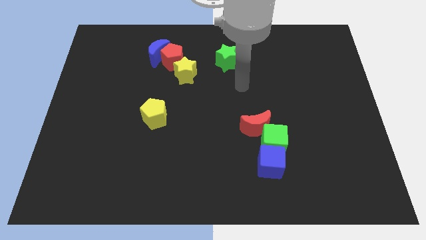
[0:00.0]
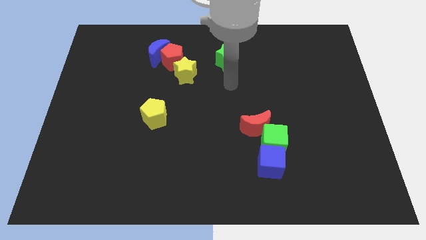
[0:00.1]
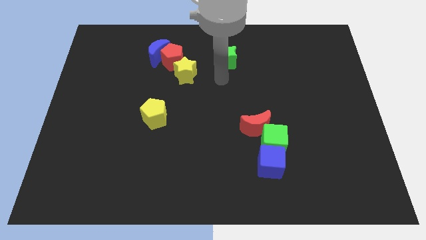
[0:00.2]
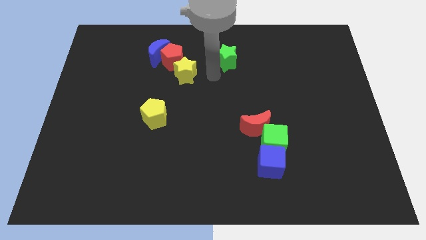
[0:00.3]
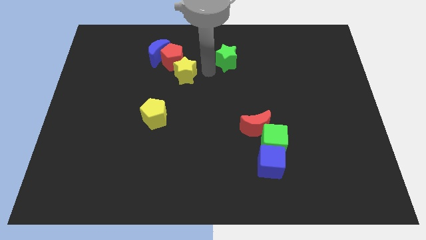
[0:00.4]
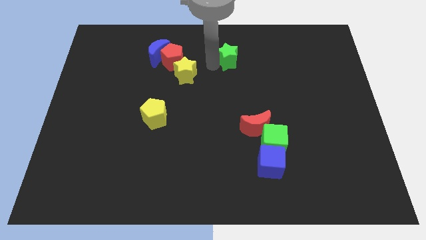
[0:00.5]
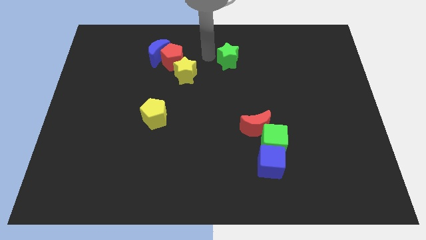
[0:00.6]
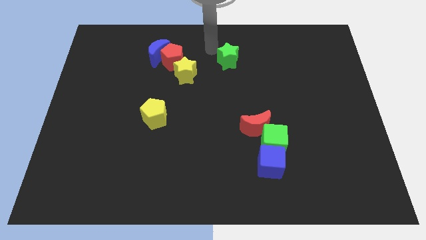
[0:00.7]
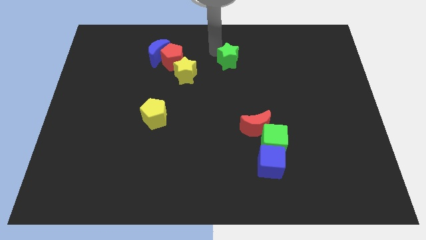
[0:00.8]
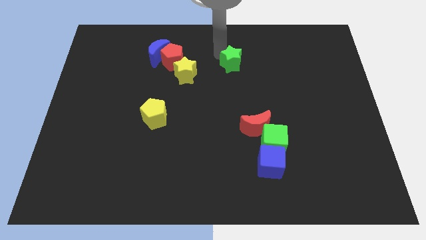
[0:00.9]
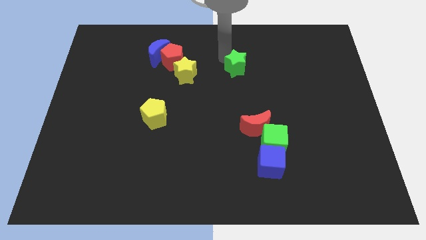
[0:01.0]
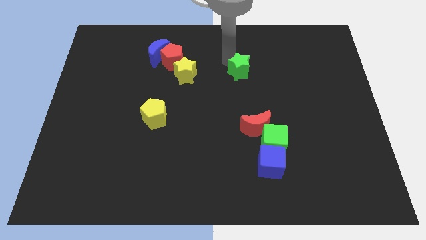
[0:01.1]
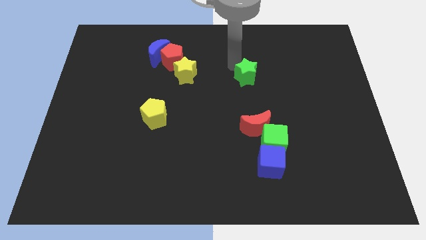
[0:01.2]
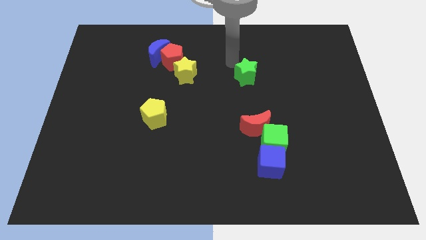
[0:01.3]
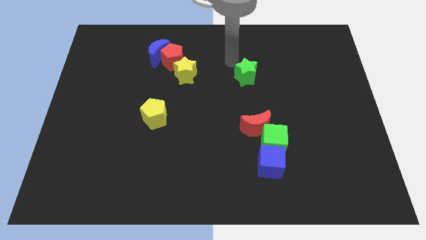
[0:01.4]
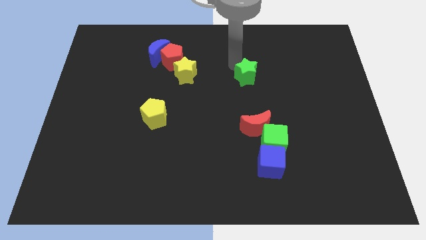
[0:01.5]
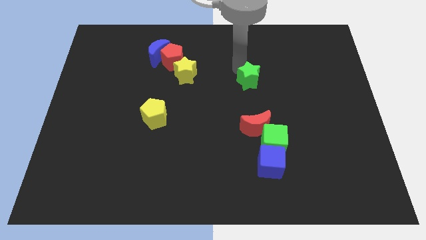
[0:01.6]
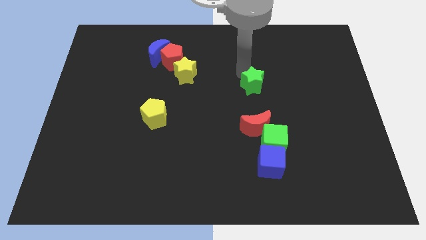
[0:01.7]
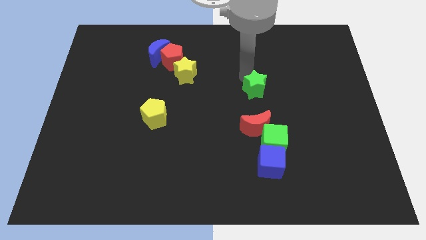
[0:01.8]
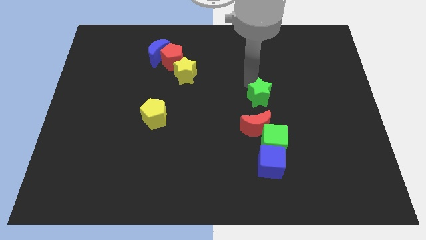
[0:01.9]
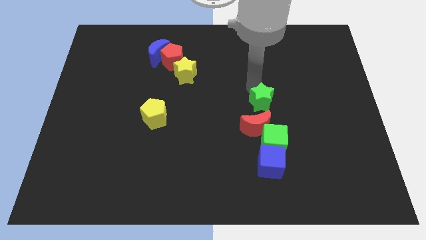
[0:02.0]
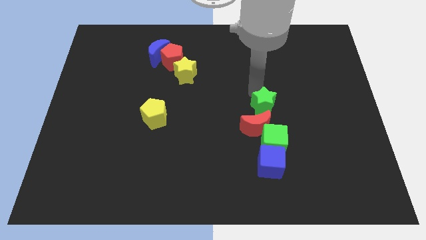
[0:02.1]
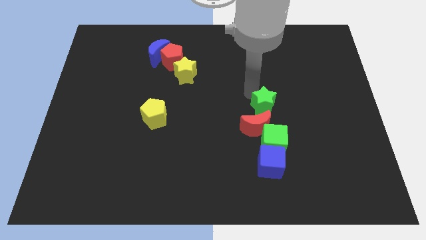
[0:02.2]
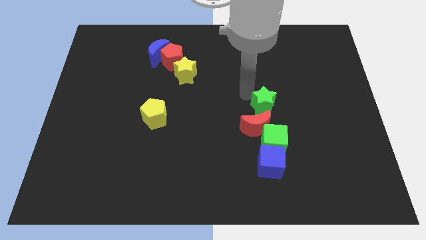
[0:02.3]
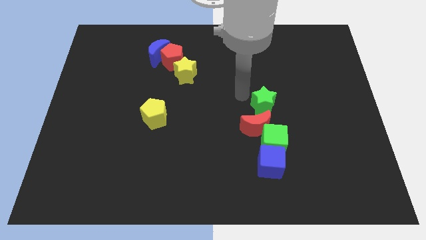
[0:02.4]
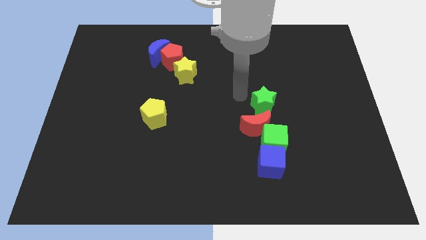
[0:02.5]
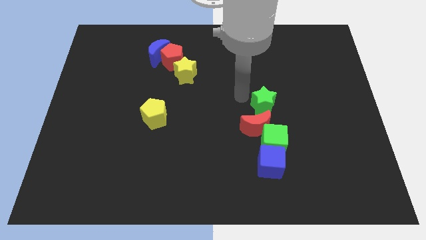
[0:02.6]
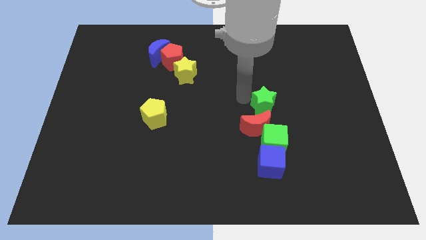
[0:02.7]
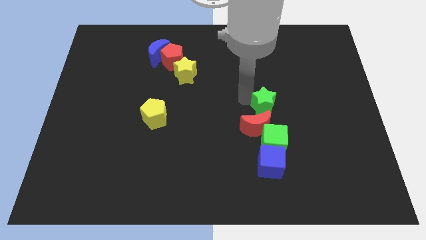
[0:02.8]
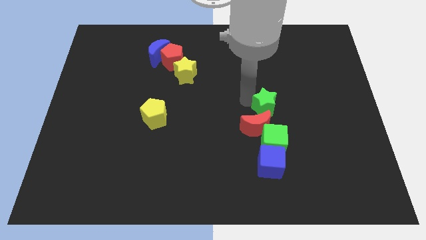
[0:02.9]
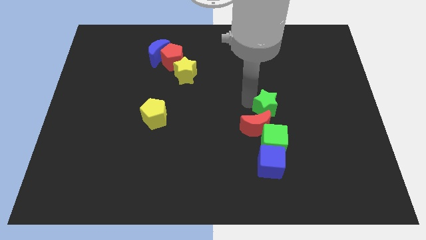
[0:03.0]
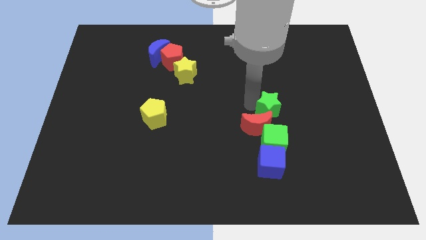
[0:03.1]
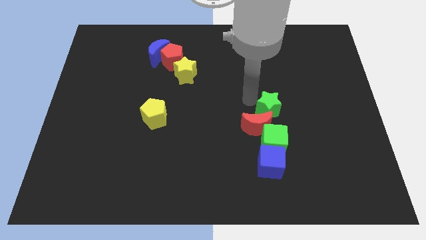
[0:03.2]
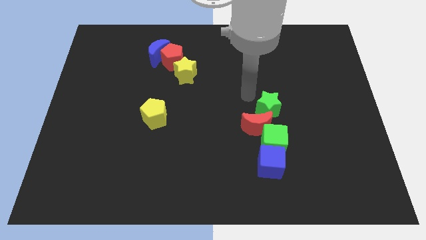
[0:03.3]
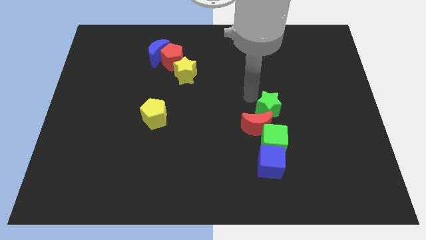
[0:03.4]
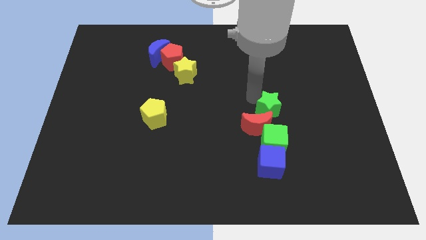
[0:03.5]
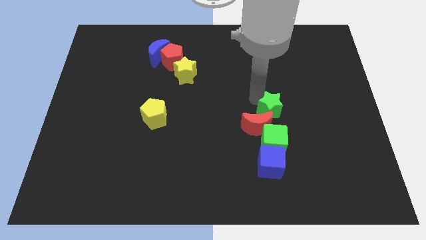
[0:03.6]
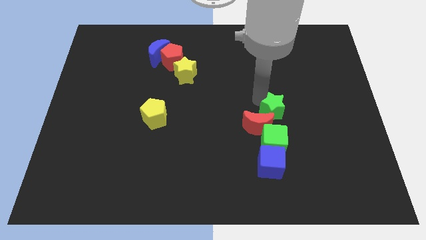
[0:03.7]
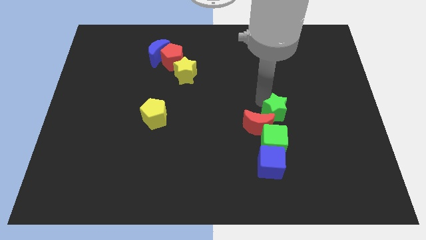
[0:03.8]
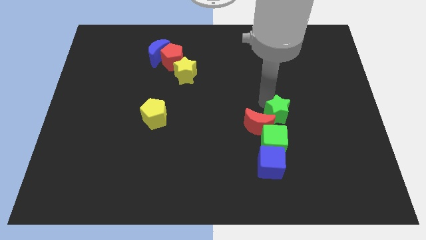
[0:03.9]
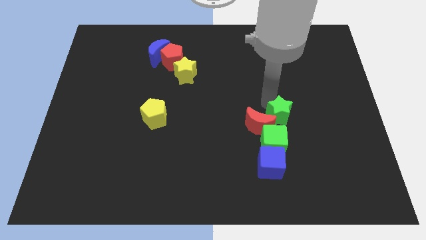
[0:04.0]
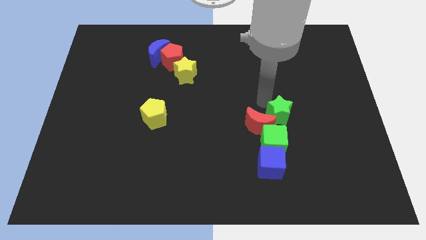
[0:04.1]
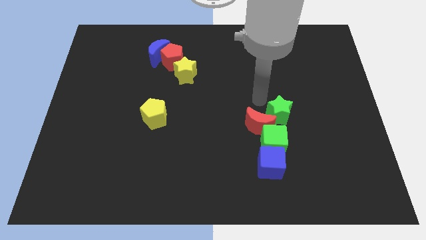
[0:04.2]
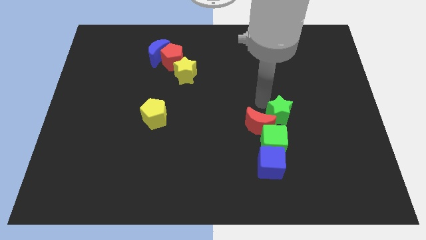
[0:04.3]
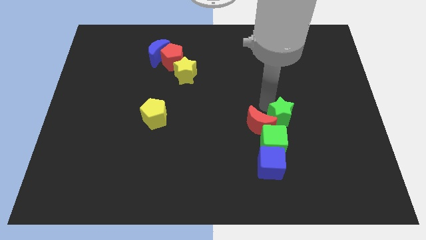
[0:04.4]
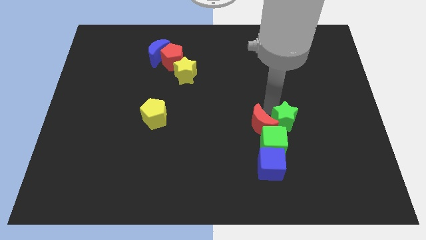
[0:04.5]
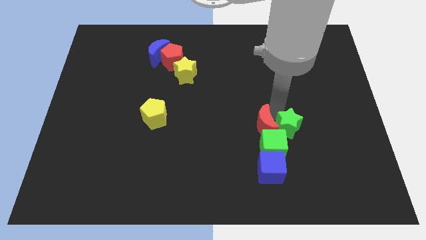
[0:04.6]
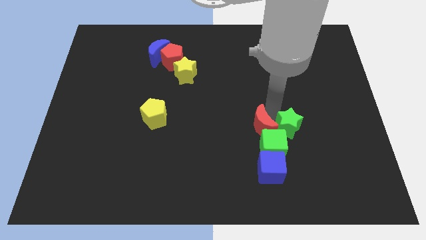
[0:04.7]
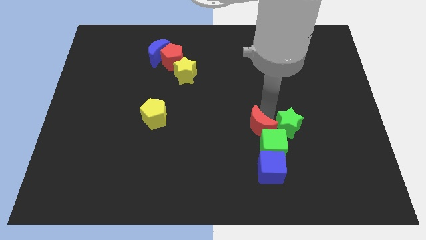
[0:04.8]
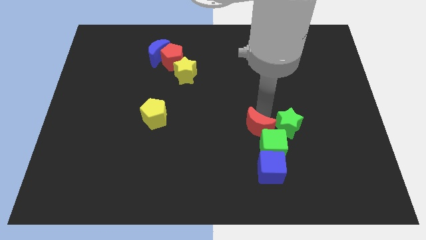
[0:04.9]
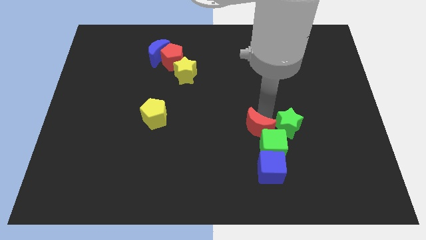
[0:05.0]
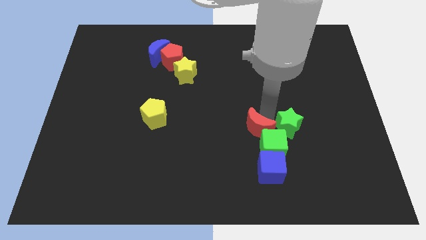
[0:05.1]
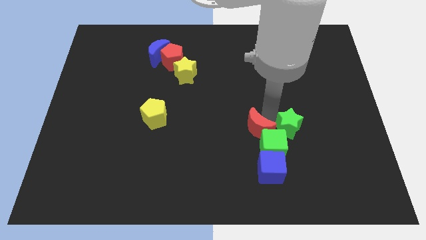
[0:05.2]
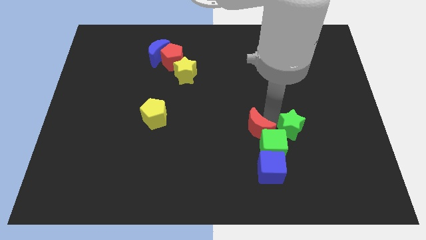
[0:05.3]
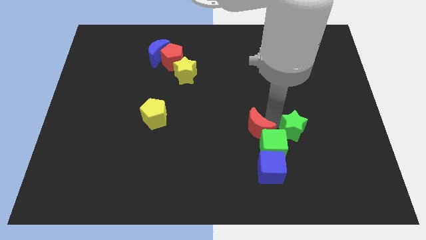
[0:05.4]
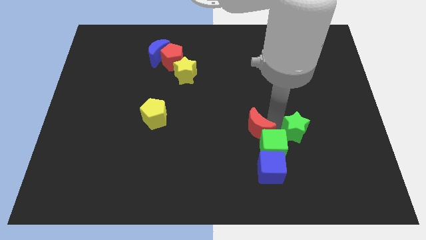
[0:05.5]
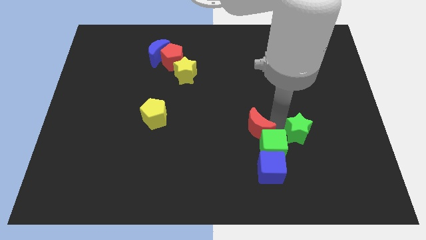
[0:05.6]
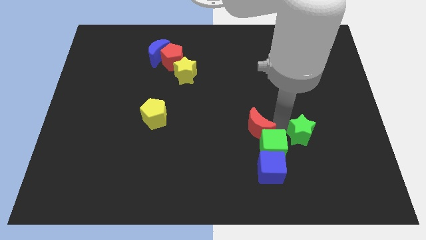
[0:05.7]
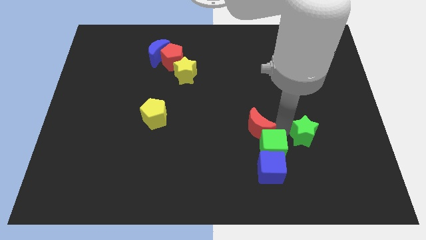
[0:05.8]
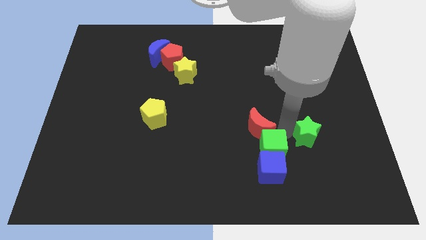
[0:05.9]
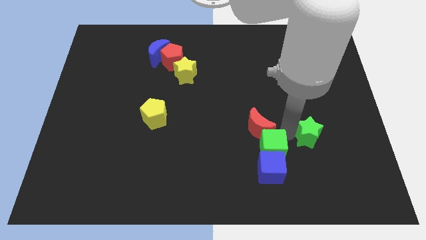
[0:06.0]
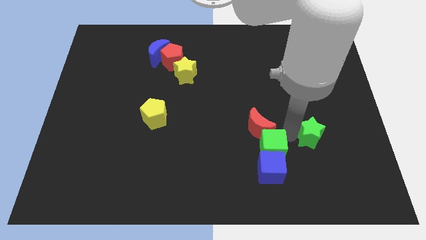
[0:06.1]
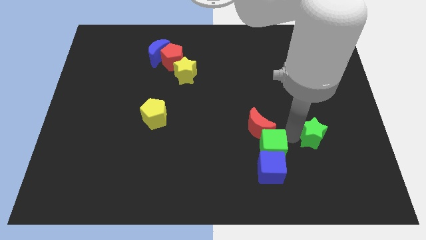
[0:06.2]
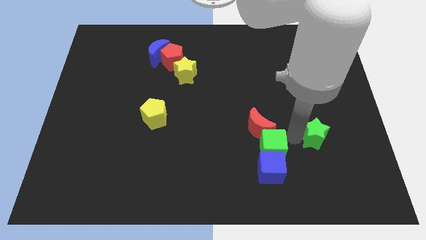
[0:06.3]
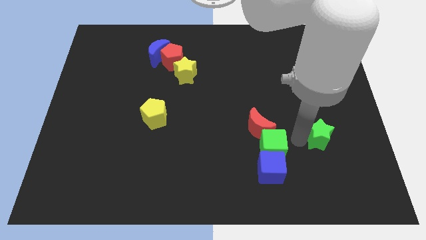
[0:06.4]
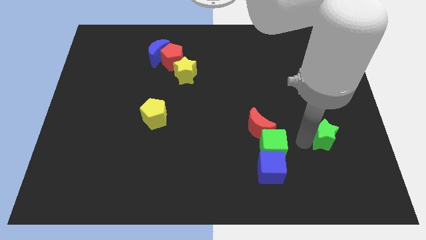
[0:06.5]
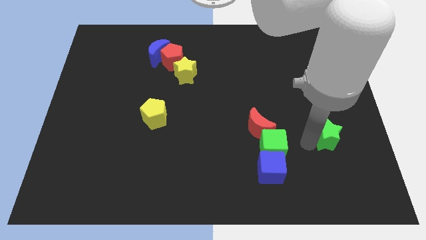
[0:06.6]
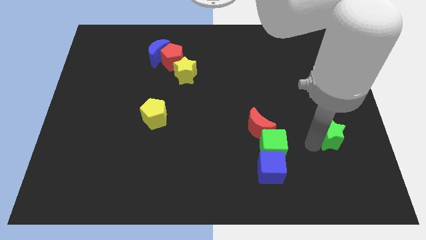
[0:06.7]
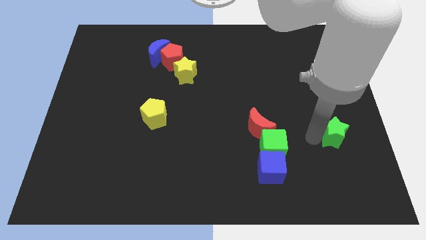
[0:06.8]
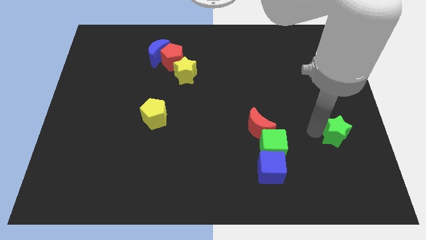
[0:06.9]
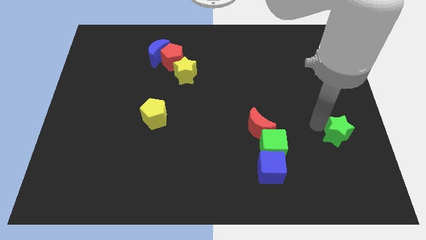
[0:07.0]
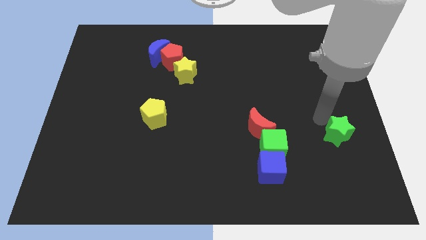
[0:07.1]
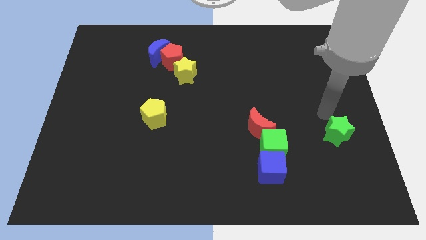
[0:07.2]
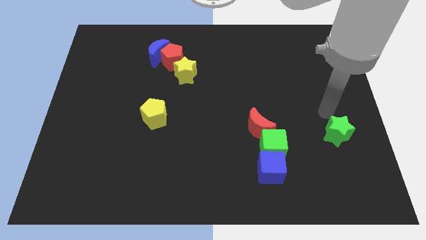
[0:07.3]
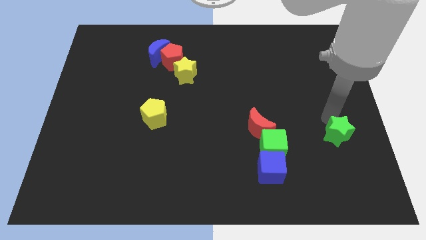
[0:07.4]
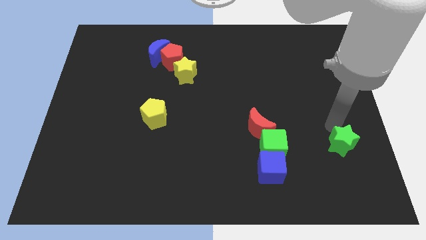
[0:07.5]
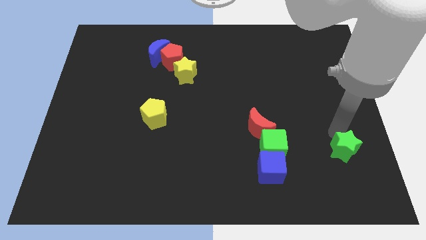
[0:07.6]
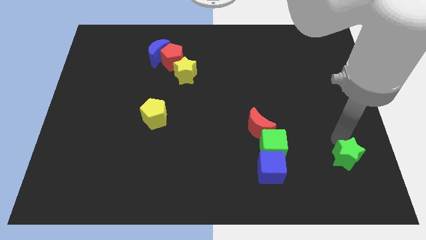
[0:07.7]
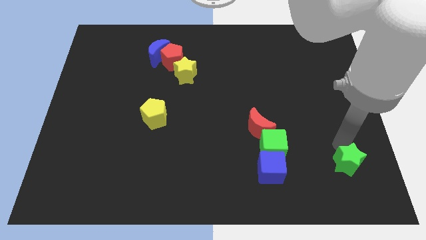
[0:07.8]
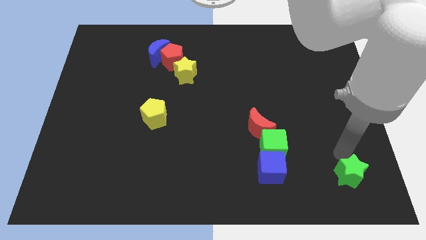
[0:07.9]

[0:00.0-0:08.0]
push the green star to the bottom right of the board
